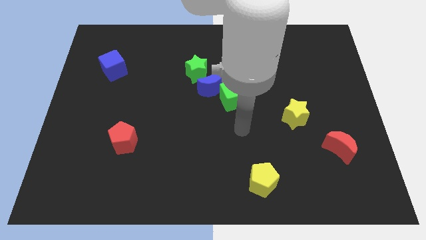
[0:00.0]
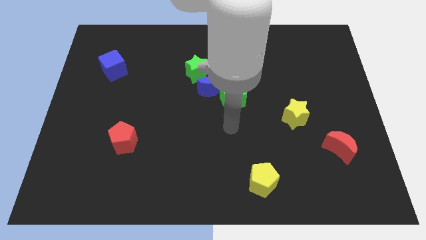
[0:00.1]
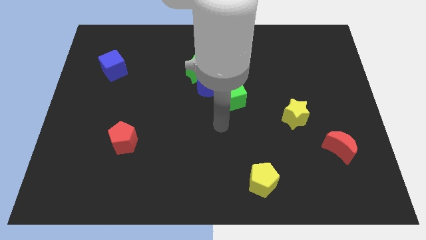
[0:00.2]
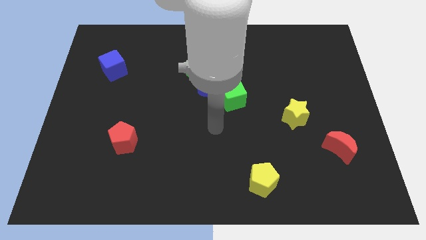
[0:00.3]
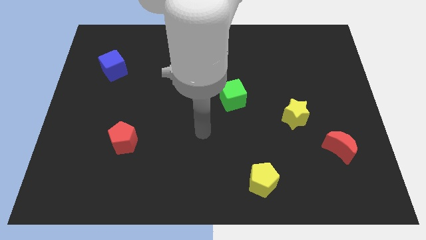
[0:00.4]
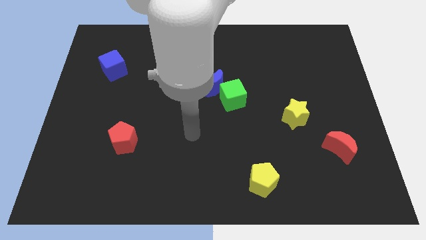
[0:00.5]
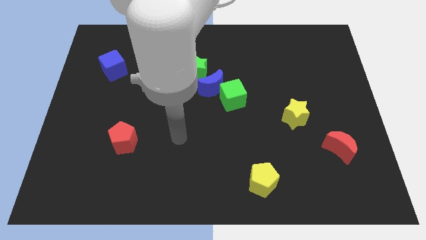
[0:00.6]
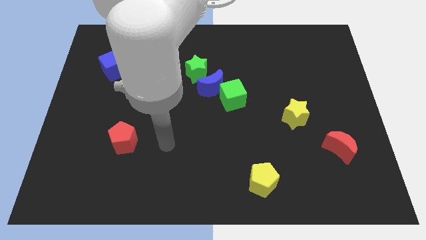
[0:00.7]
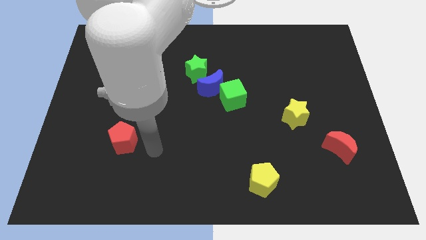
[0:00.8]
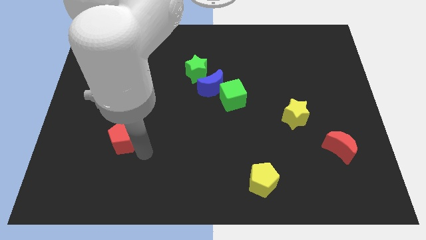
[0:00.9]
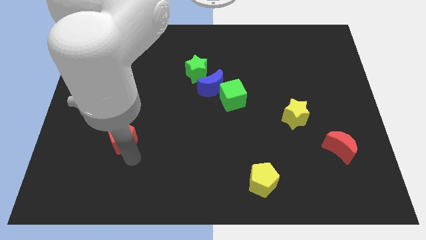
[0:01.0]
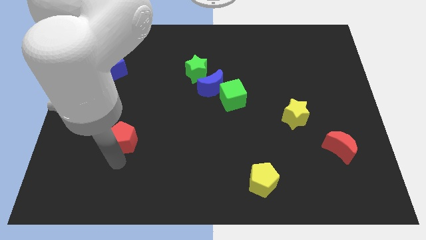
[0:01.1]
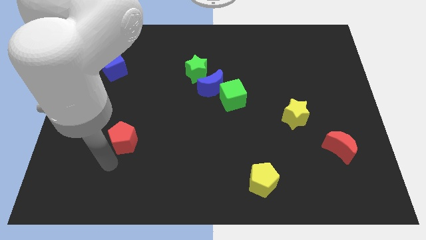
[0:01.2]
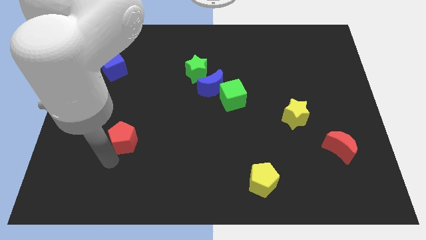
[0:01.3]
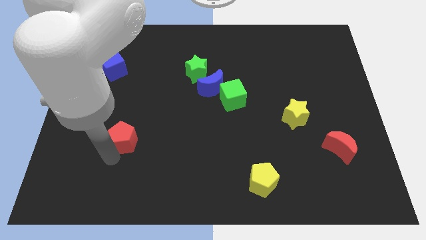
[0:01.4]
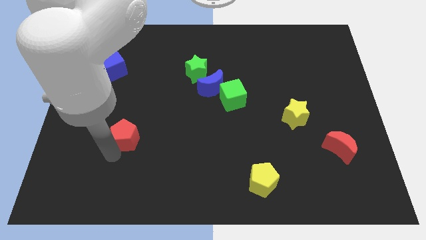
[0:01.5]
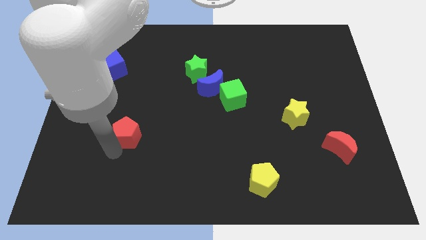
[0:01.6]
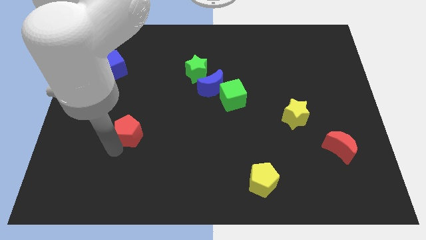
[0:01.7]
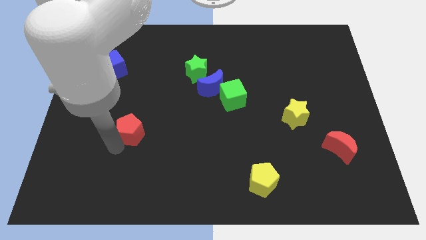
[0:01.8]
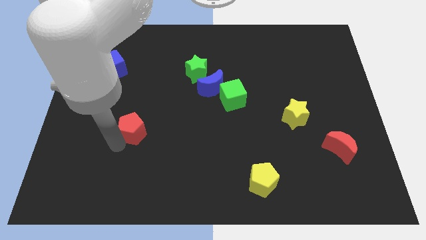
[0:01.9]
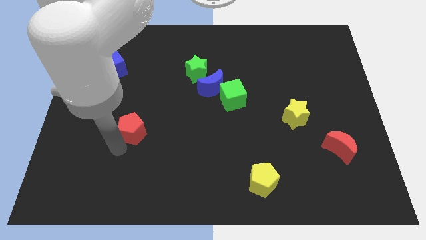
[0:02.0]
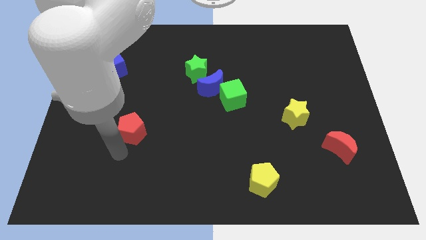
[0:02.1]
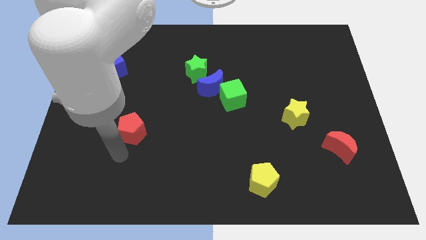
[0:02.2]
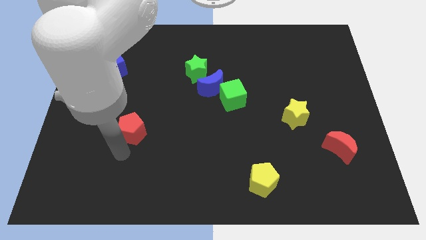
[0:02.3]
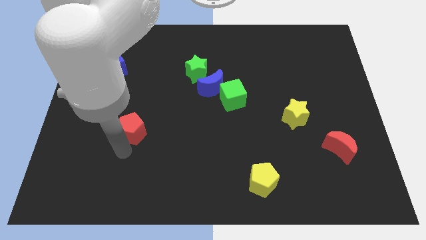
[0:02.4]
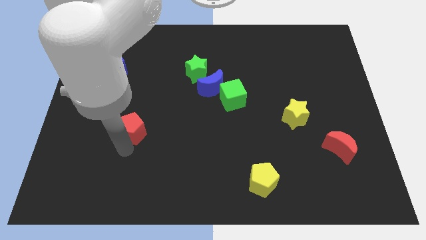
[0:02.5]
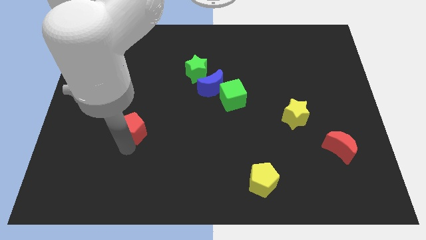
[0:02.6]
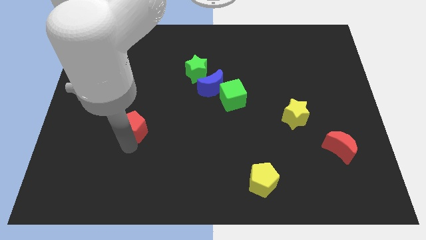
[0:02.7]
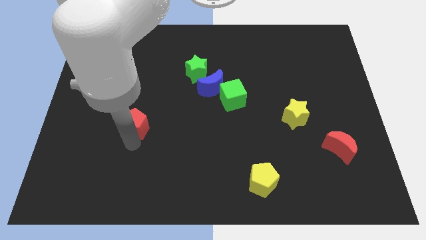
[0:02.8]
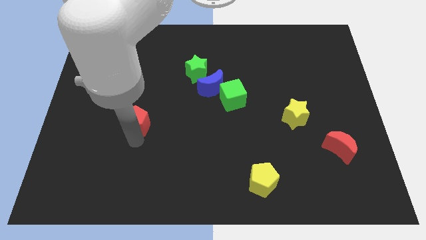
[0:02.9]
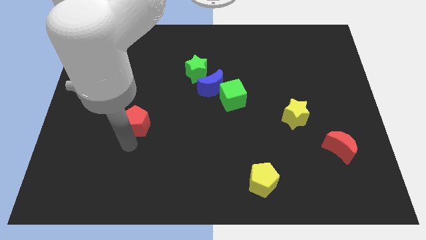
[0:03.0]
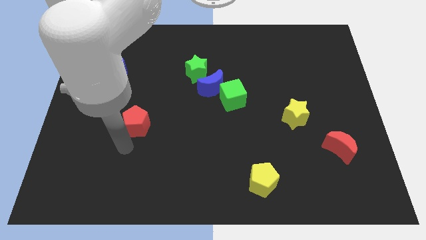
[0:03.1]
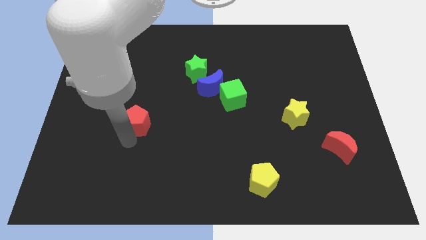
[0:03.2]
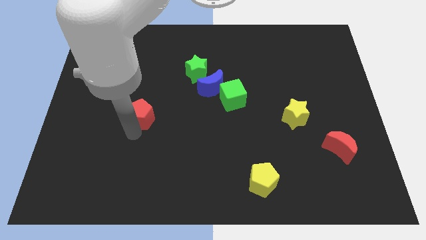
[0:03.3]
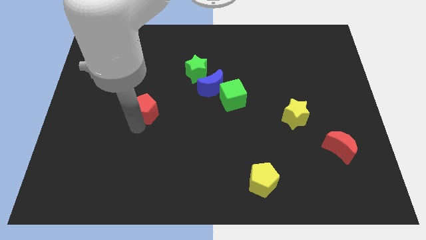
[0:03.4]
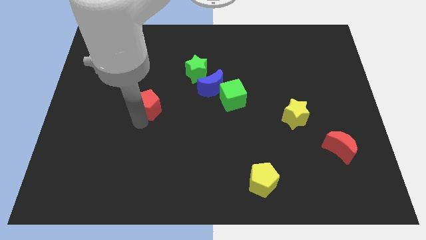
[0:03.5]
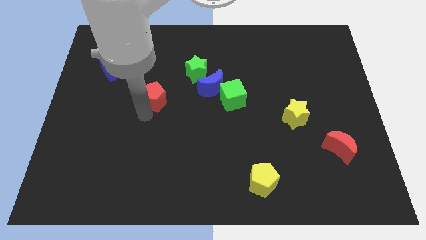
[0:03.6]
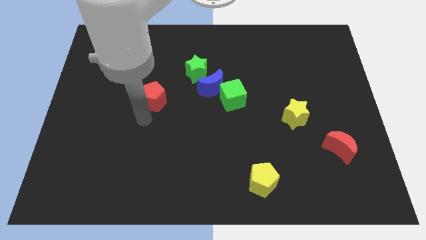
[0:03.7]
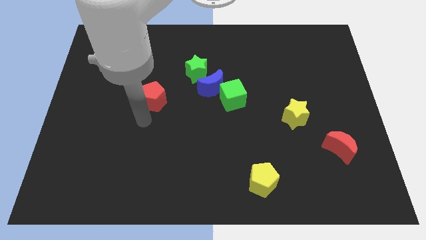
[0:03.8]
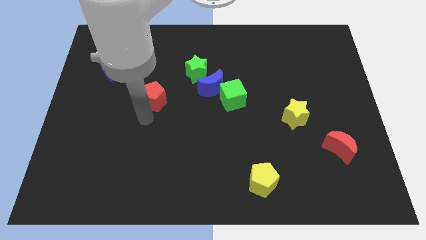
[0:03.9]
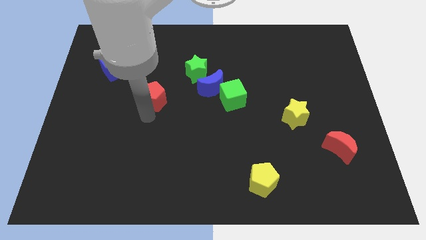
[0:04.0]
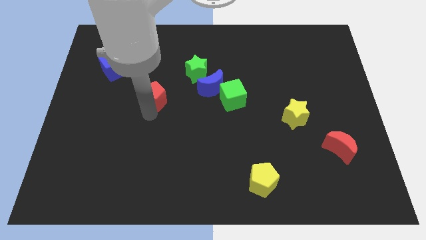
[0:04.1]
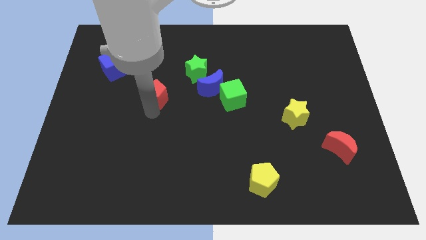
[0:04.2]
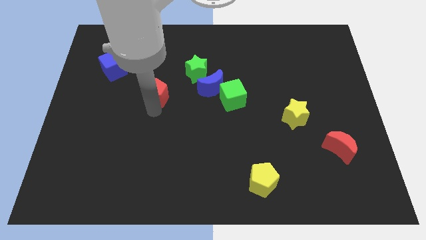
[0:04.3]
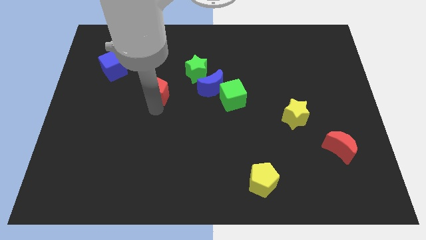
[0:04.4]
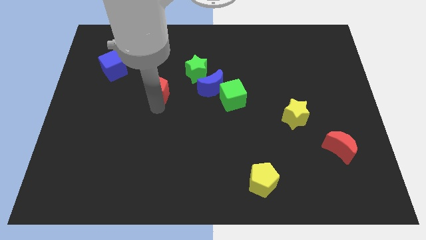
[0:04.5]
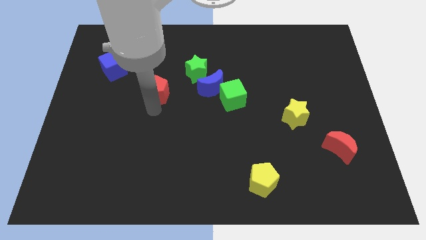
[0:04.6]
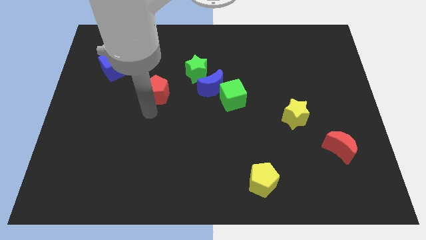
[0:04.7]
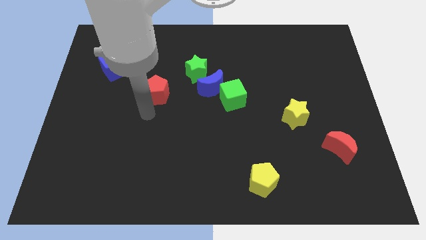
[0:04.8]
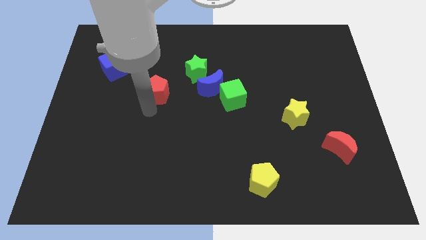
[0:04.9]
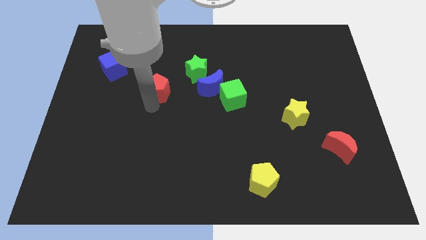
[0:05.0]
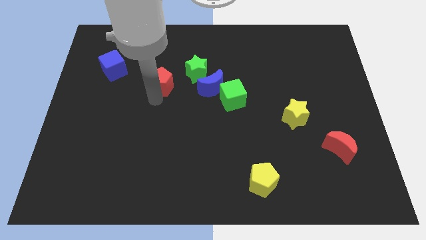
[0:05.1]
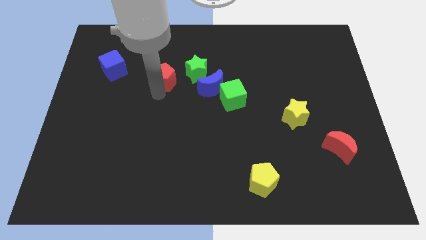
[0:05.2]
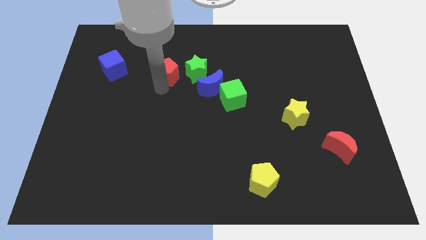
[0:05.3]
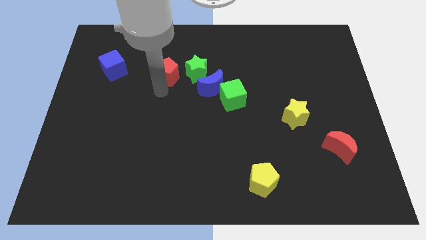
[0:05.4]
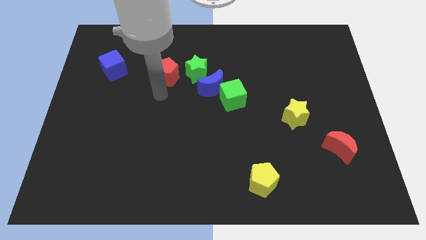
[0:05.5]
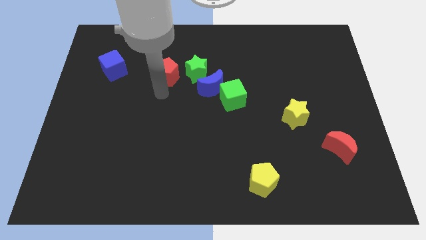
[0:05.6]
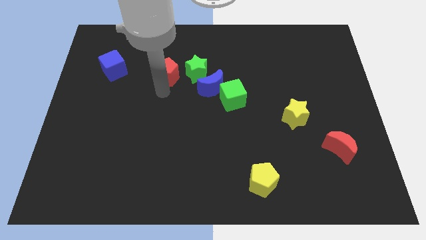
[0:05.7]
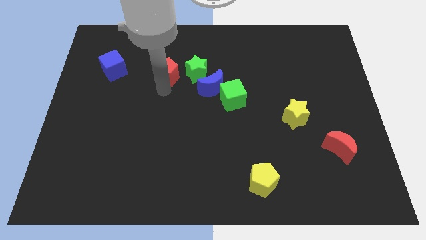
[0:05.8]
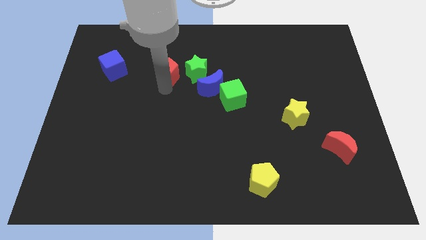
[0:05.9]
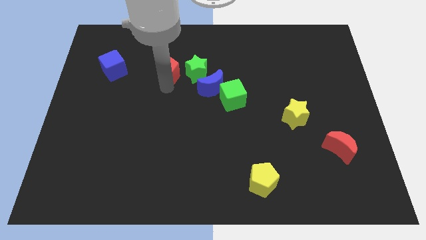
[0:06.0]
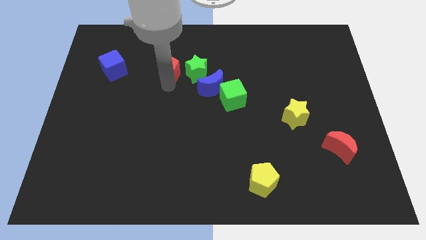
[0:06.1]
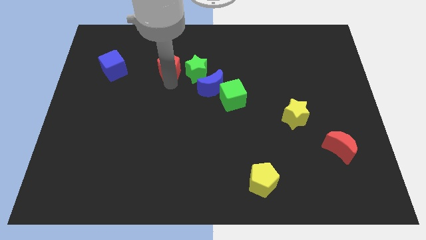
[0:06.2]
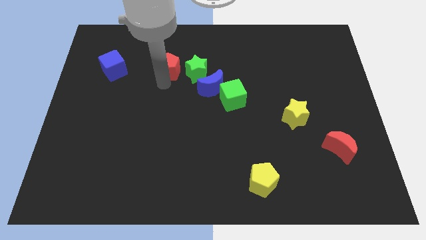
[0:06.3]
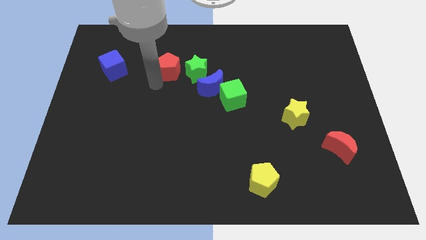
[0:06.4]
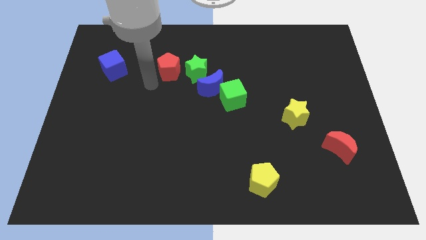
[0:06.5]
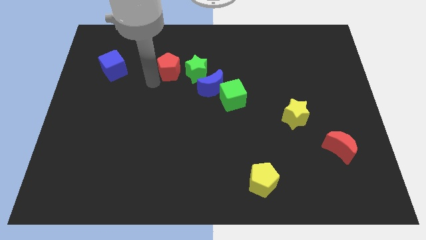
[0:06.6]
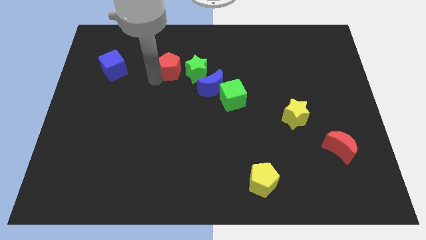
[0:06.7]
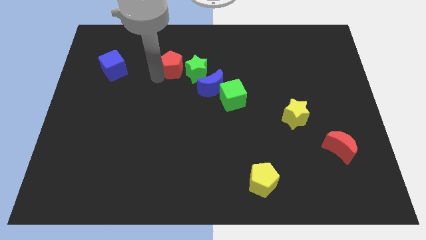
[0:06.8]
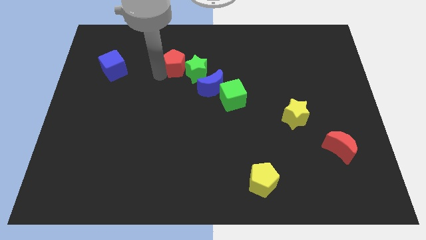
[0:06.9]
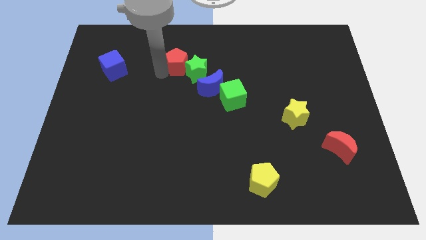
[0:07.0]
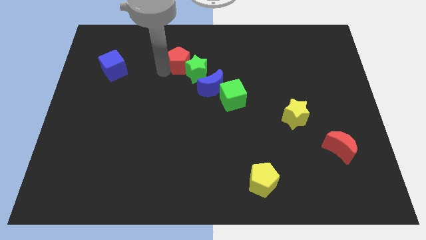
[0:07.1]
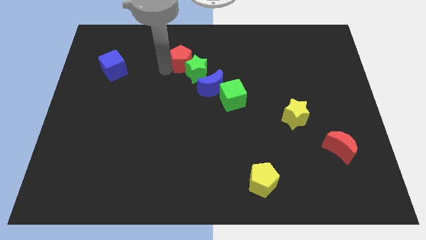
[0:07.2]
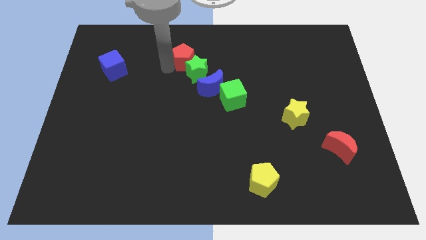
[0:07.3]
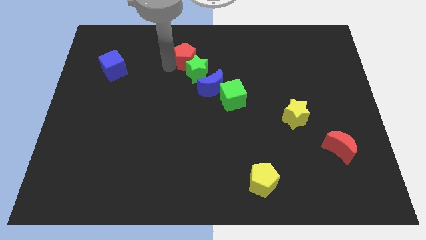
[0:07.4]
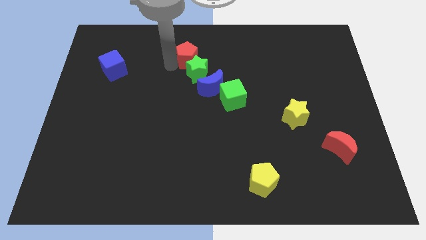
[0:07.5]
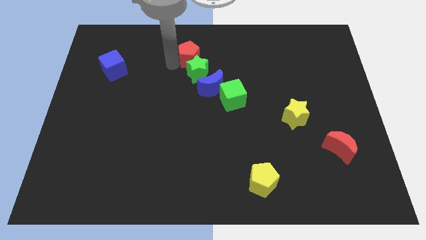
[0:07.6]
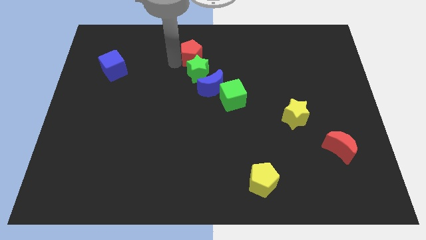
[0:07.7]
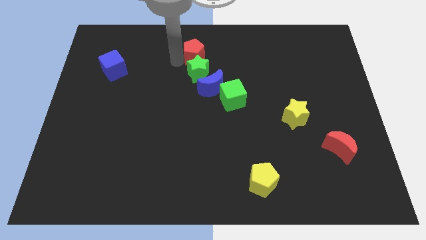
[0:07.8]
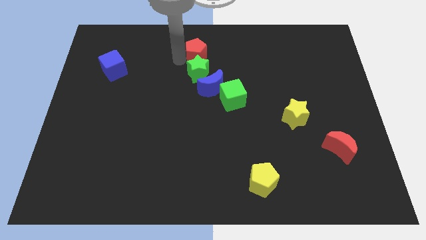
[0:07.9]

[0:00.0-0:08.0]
move the red pentagon to the towards your base
